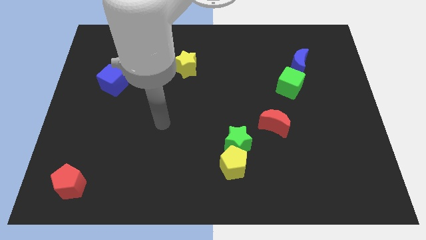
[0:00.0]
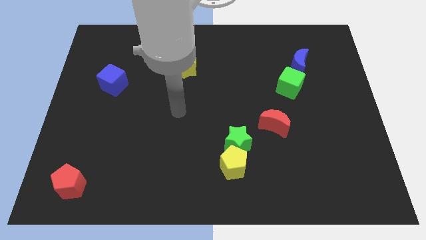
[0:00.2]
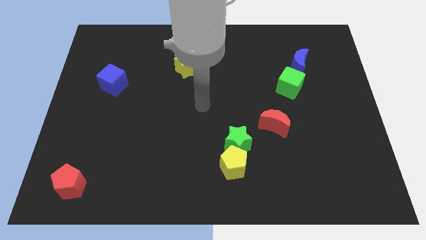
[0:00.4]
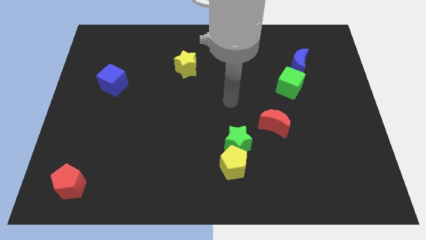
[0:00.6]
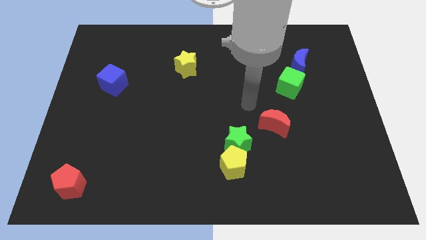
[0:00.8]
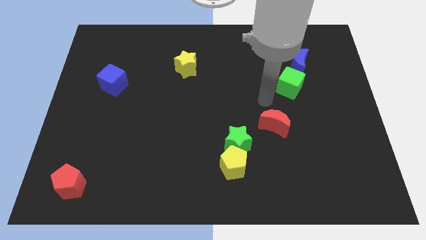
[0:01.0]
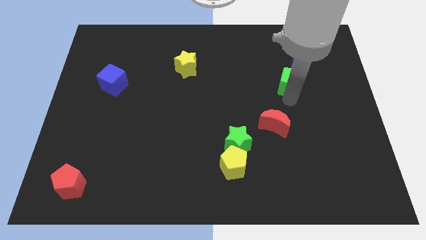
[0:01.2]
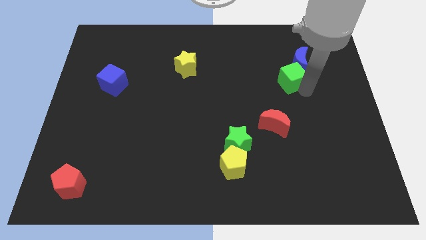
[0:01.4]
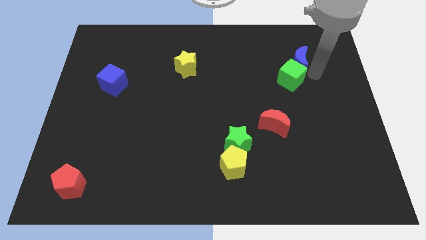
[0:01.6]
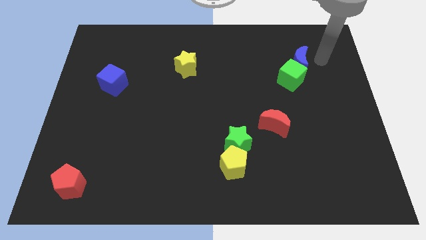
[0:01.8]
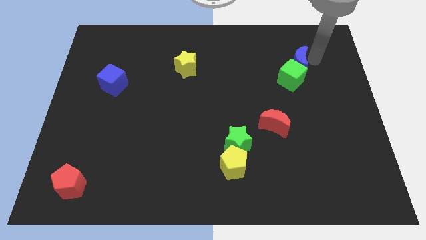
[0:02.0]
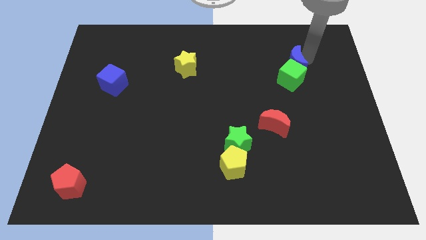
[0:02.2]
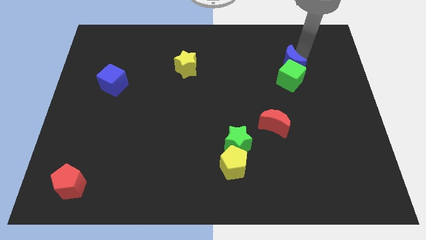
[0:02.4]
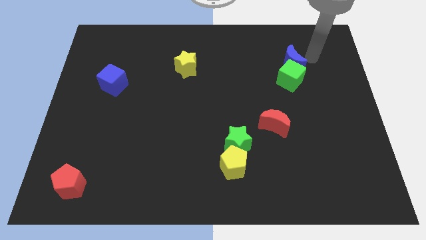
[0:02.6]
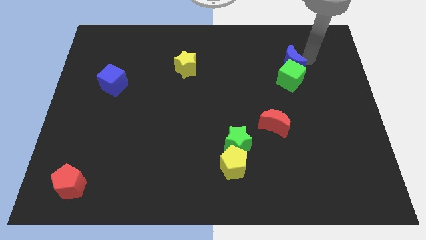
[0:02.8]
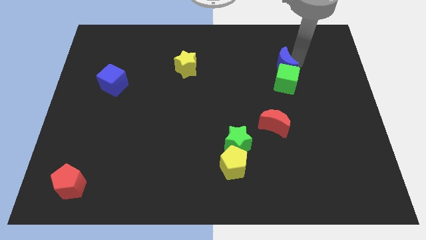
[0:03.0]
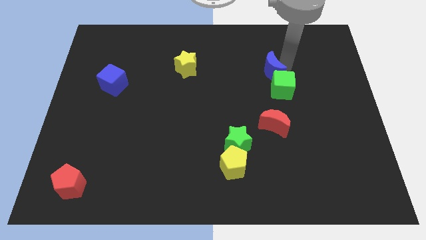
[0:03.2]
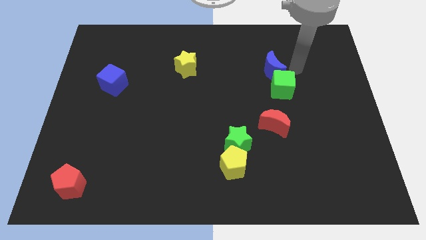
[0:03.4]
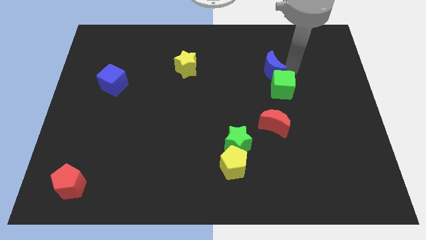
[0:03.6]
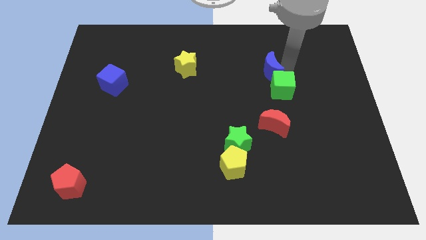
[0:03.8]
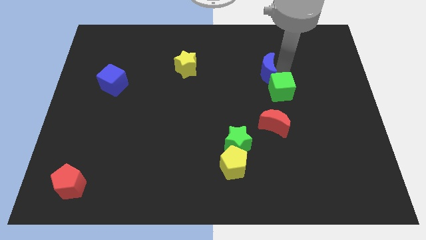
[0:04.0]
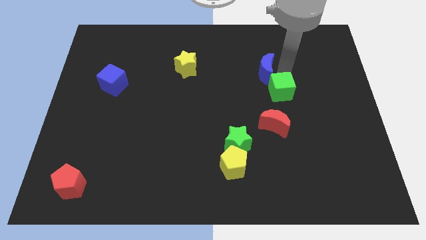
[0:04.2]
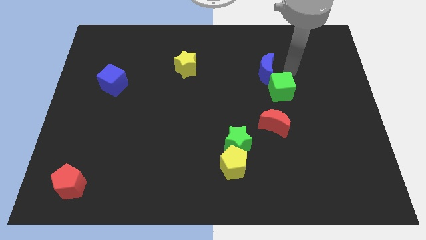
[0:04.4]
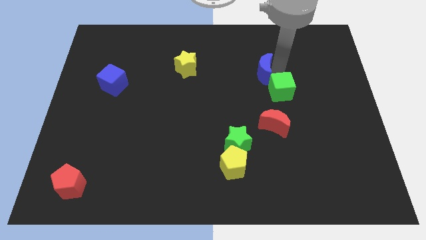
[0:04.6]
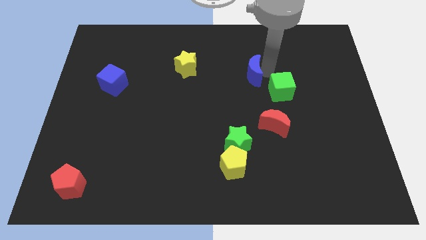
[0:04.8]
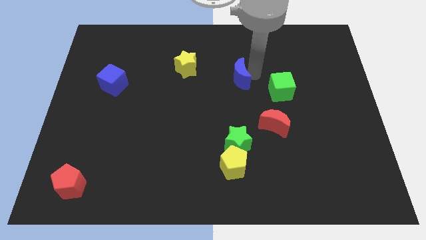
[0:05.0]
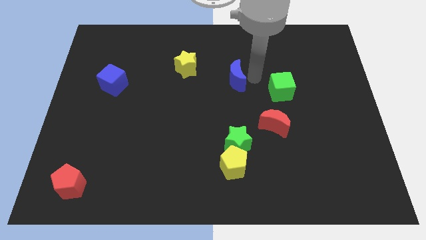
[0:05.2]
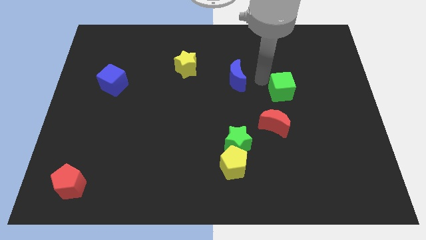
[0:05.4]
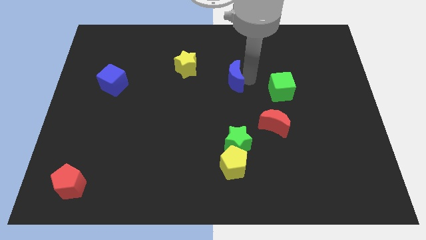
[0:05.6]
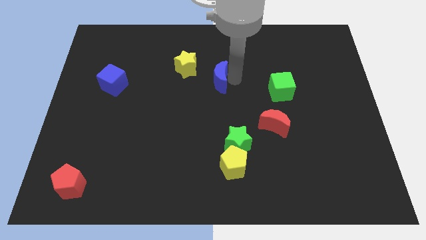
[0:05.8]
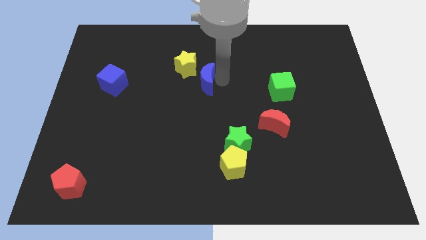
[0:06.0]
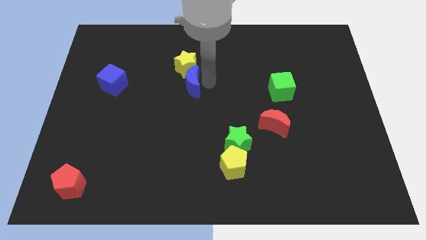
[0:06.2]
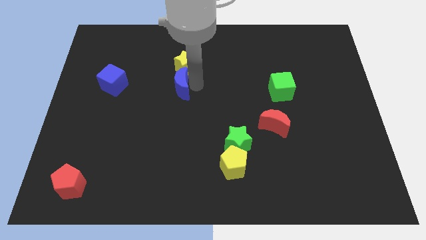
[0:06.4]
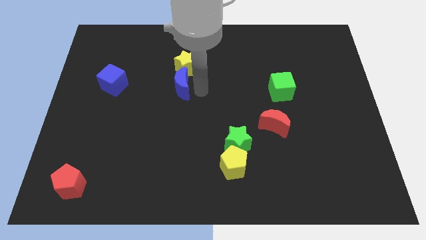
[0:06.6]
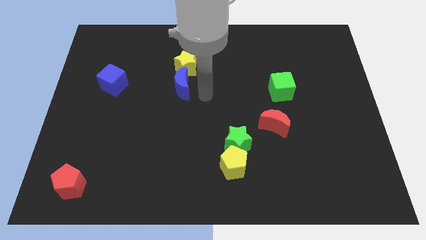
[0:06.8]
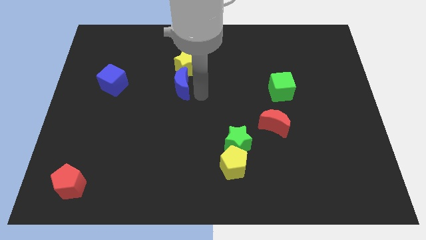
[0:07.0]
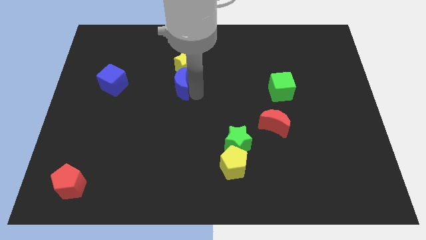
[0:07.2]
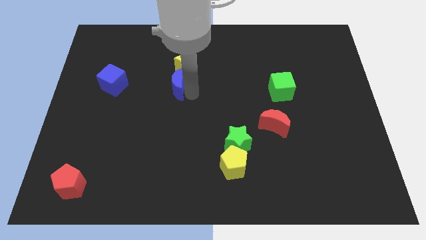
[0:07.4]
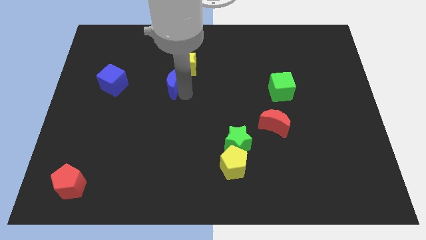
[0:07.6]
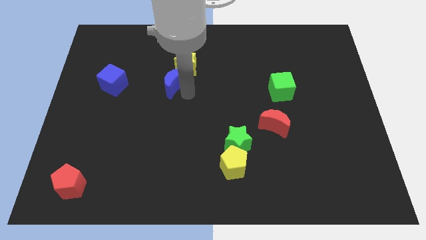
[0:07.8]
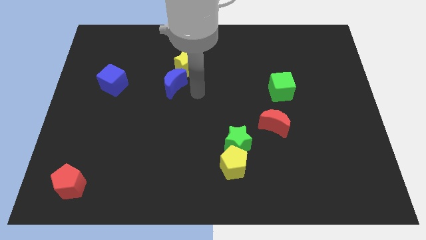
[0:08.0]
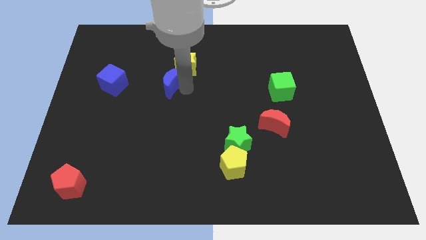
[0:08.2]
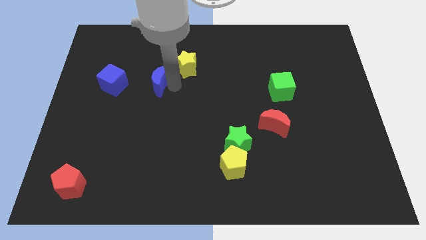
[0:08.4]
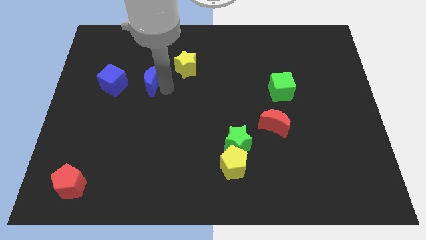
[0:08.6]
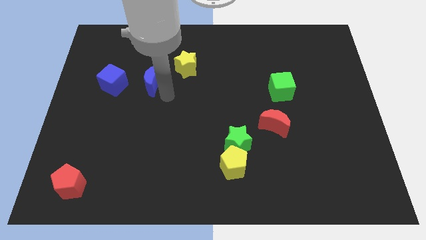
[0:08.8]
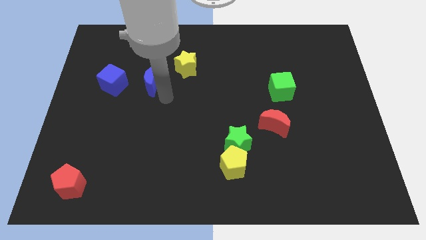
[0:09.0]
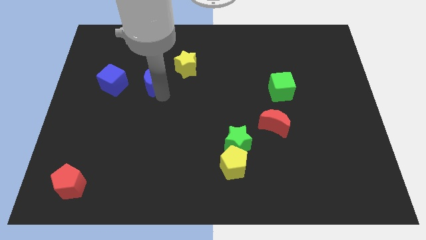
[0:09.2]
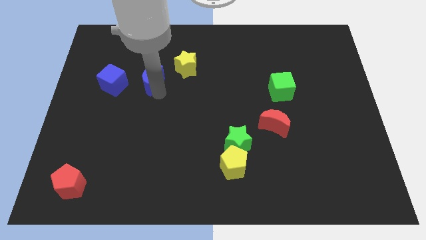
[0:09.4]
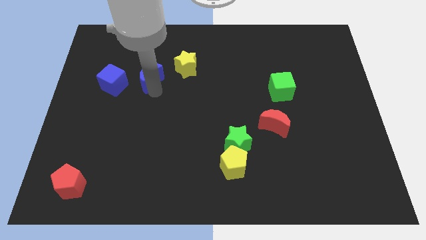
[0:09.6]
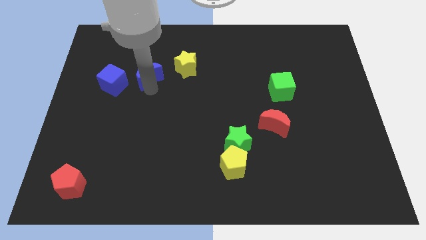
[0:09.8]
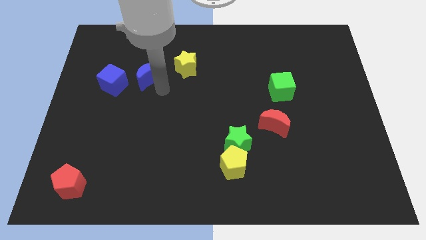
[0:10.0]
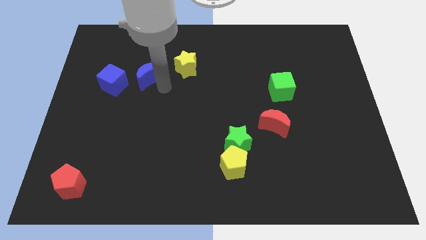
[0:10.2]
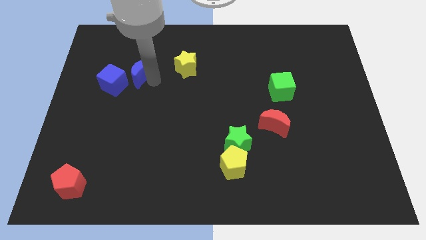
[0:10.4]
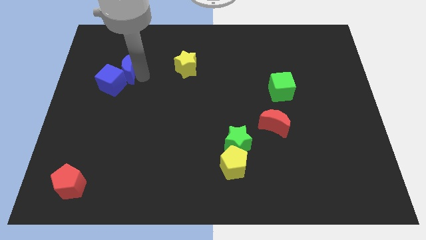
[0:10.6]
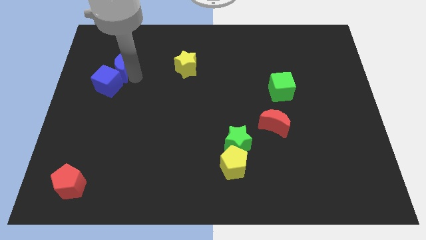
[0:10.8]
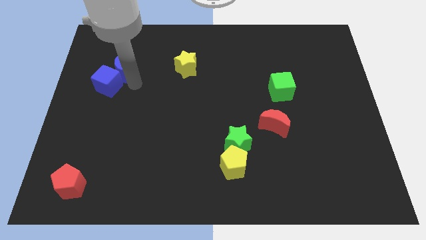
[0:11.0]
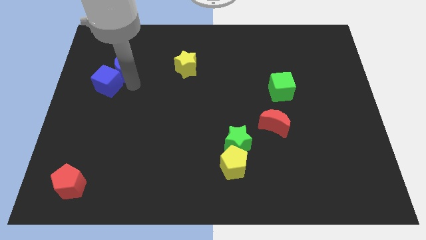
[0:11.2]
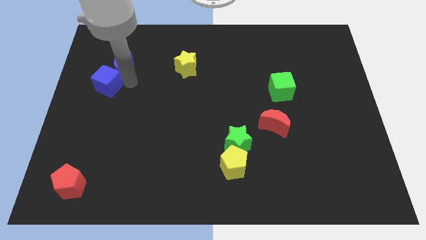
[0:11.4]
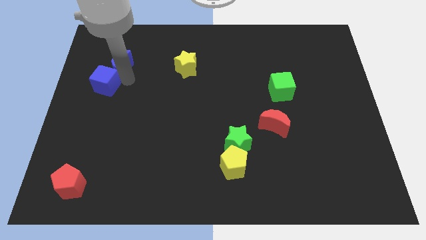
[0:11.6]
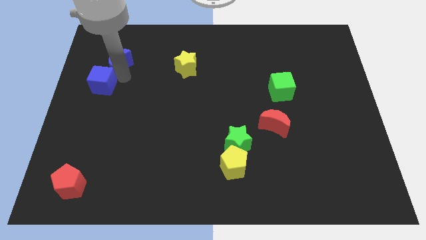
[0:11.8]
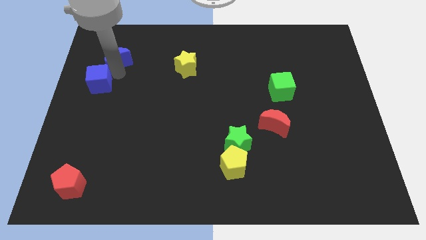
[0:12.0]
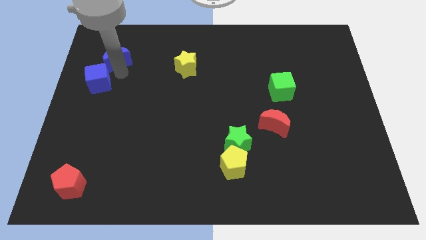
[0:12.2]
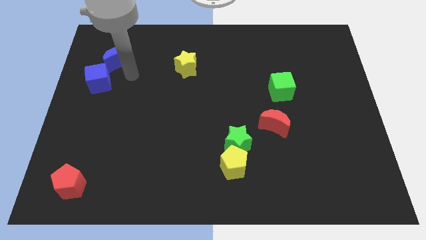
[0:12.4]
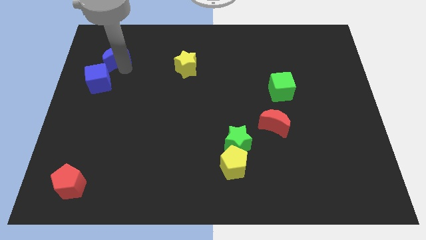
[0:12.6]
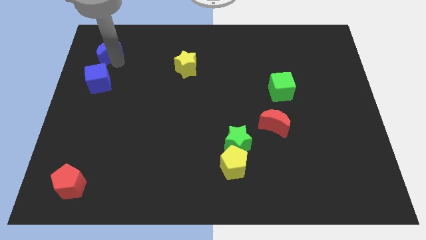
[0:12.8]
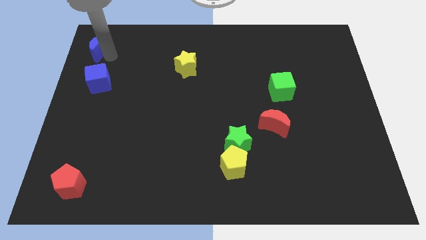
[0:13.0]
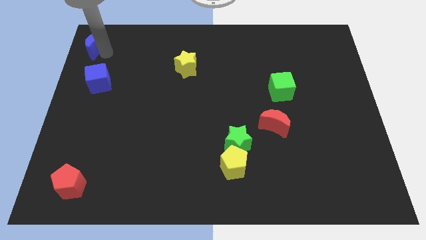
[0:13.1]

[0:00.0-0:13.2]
slide the blue moon to the top left corner
